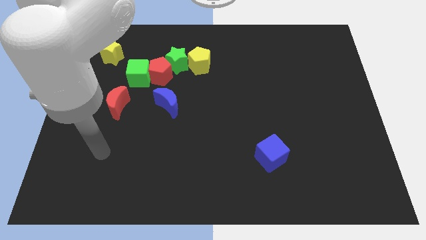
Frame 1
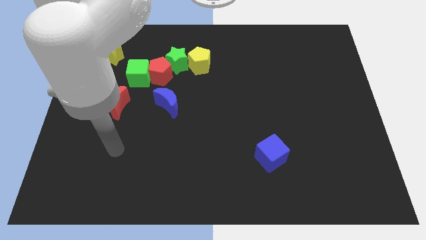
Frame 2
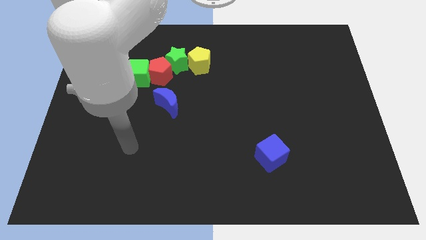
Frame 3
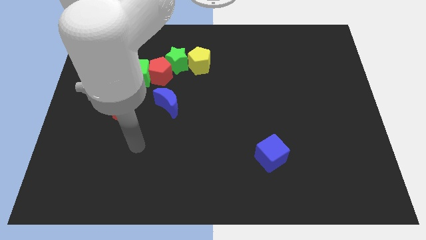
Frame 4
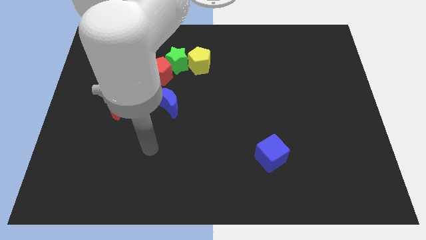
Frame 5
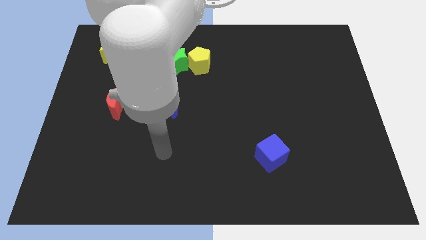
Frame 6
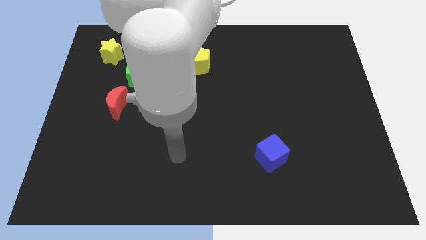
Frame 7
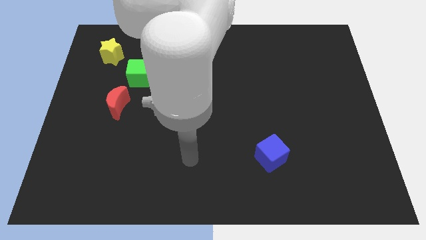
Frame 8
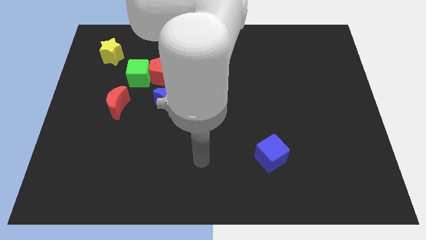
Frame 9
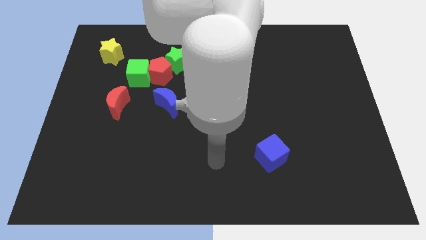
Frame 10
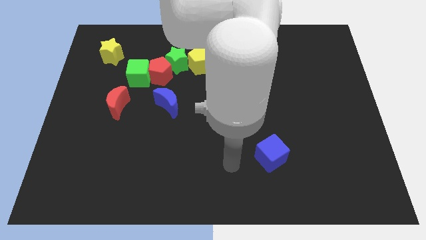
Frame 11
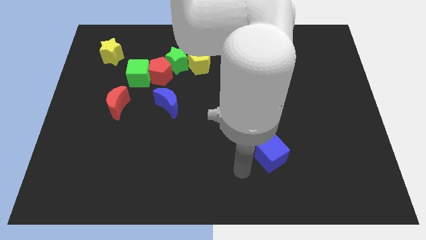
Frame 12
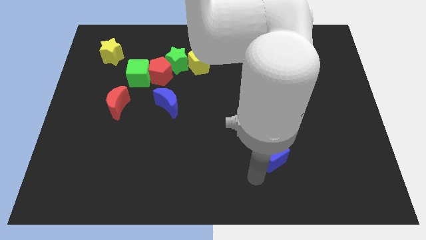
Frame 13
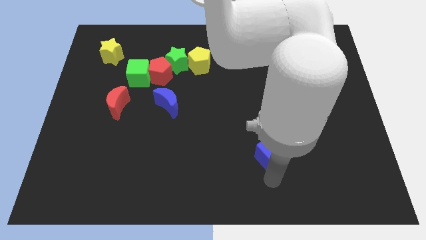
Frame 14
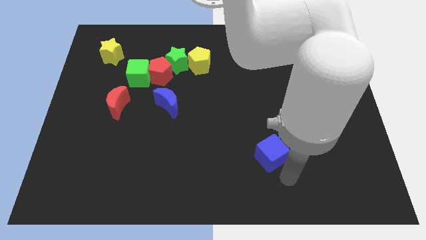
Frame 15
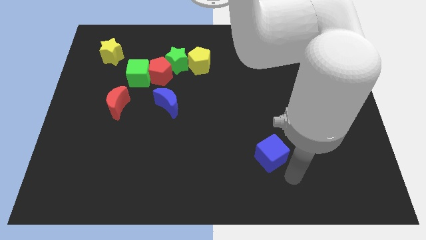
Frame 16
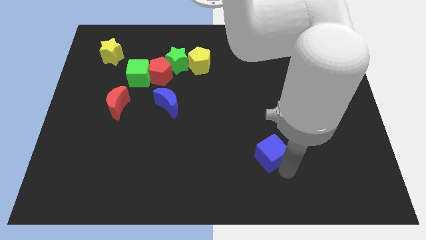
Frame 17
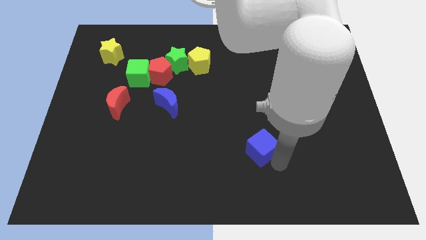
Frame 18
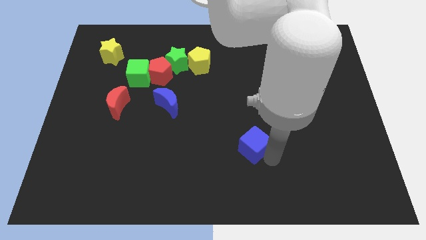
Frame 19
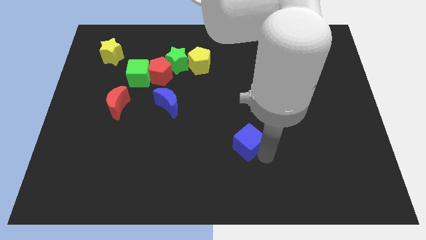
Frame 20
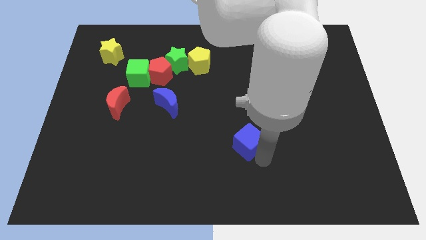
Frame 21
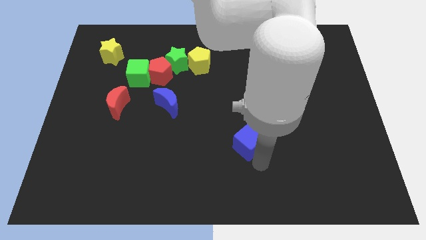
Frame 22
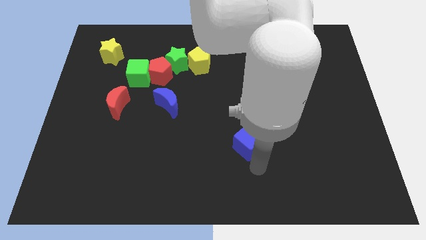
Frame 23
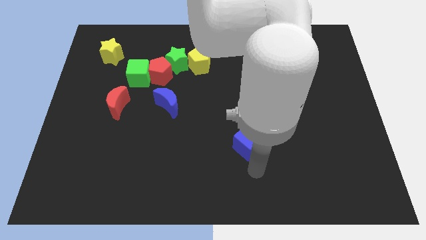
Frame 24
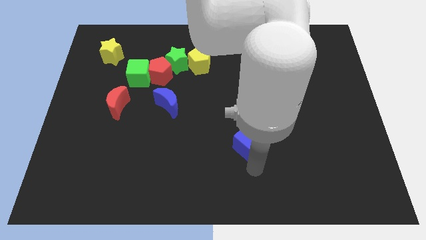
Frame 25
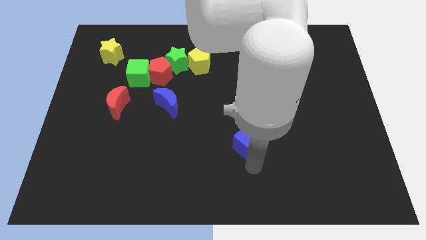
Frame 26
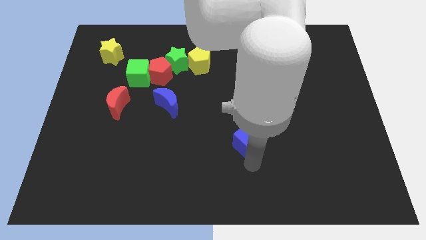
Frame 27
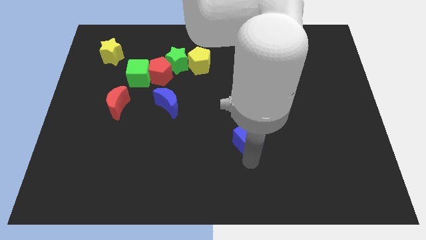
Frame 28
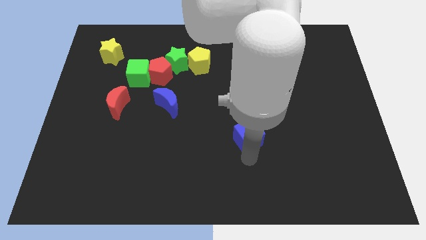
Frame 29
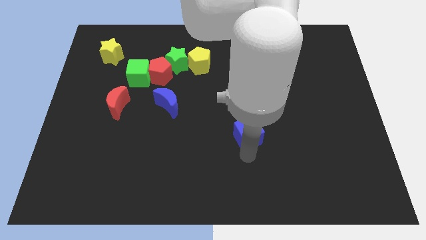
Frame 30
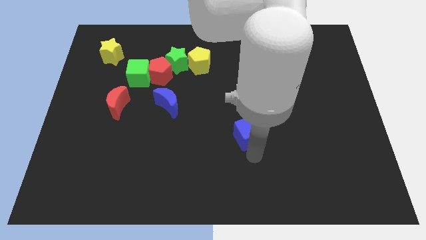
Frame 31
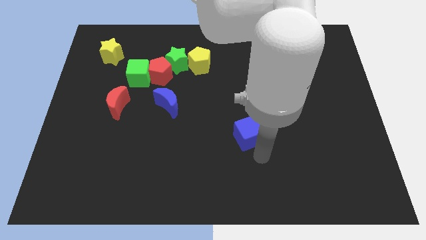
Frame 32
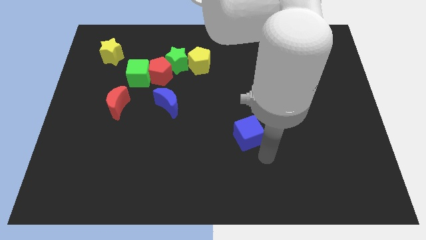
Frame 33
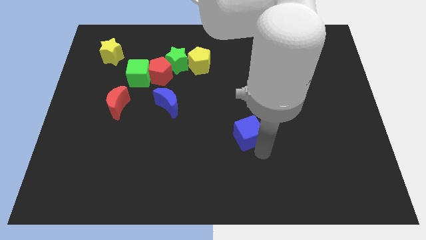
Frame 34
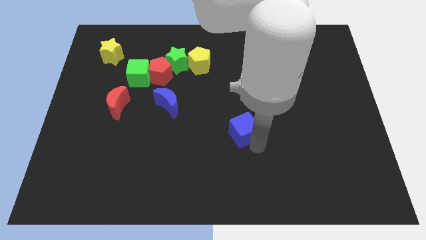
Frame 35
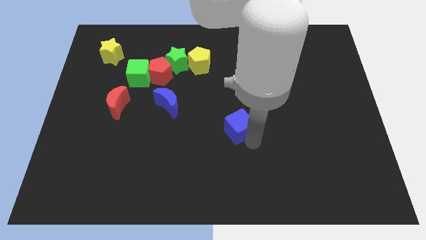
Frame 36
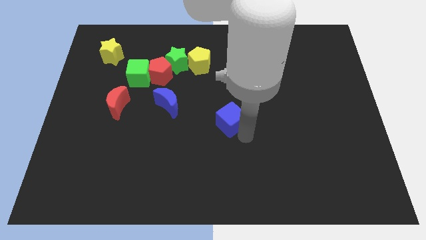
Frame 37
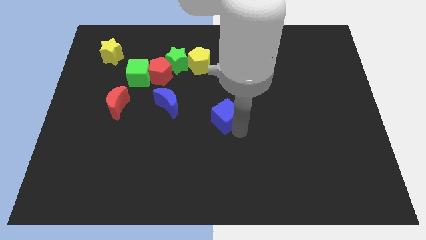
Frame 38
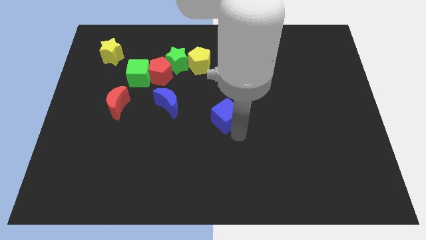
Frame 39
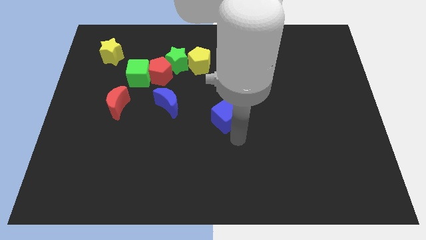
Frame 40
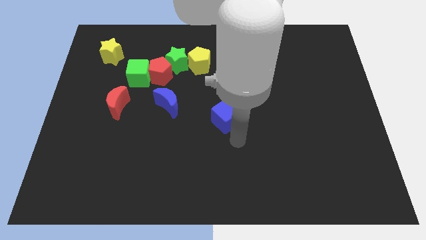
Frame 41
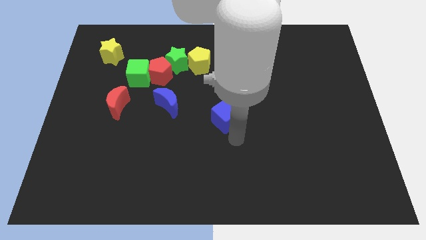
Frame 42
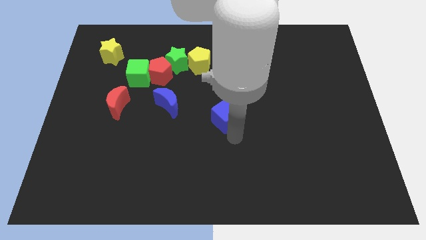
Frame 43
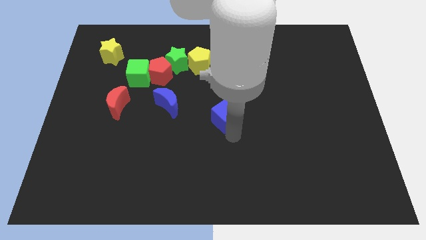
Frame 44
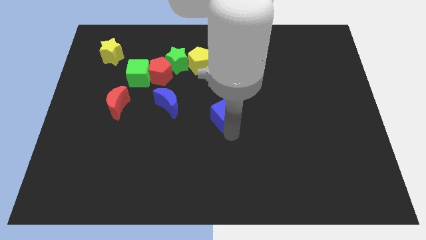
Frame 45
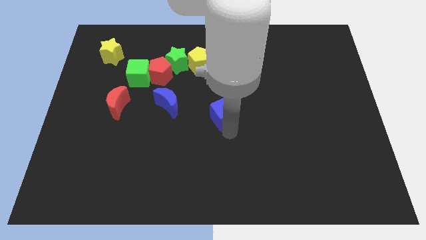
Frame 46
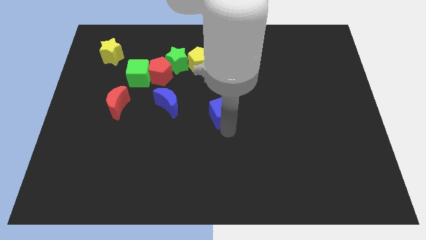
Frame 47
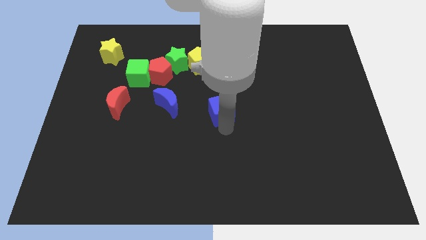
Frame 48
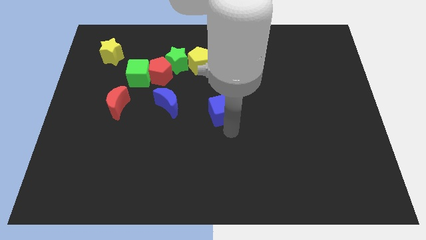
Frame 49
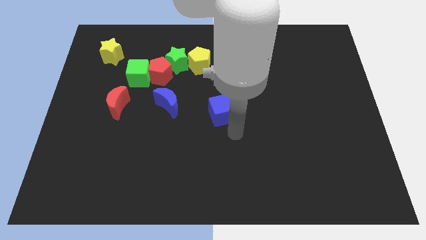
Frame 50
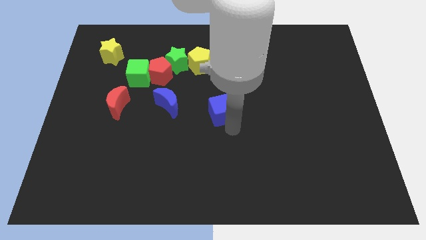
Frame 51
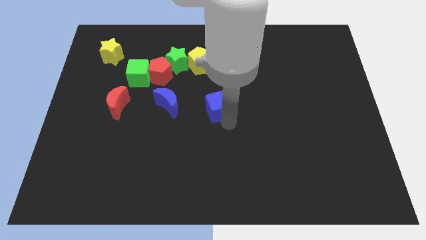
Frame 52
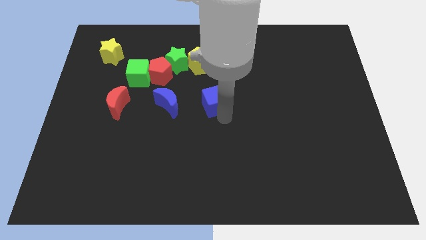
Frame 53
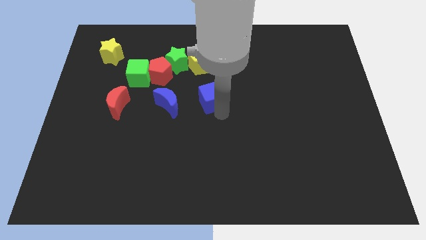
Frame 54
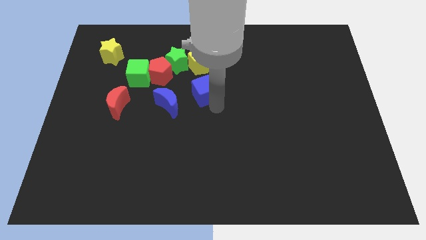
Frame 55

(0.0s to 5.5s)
slide the blue cube to the bottom right side of the green star

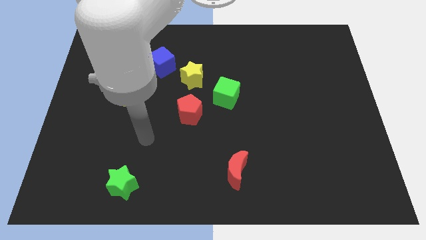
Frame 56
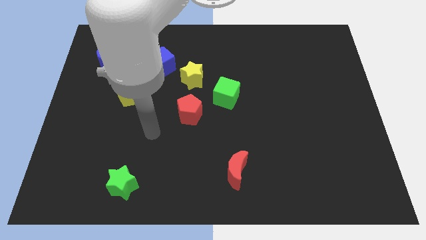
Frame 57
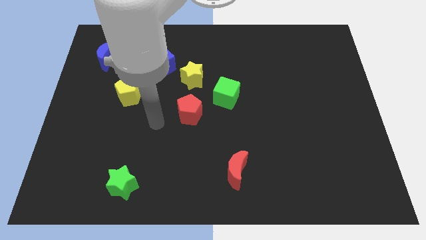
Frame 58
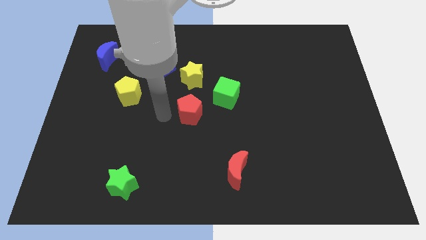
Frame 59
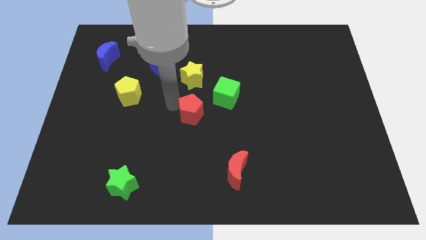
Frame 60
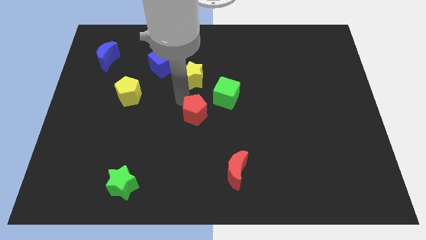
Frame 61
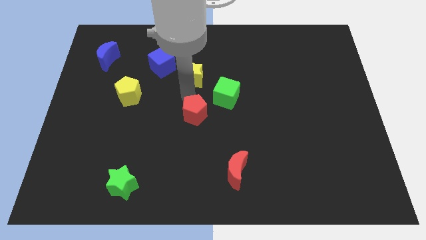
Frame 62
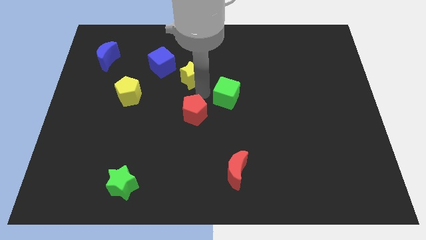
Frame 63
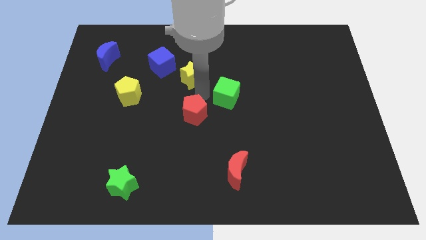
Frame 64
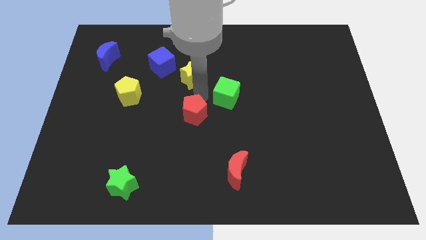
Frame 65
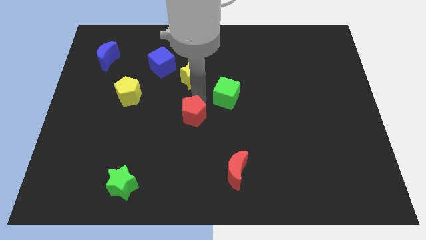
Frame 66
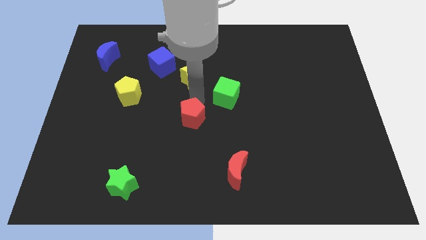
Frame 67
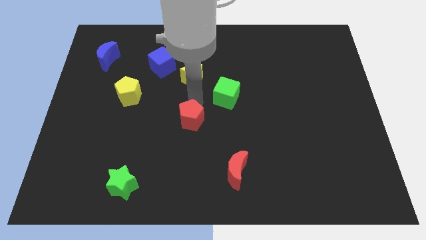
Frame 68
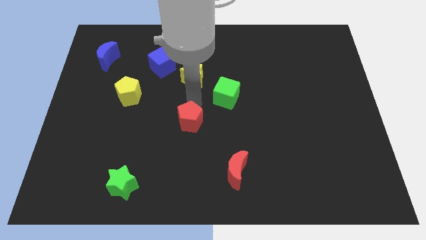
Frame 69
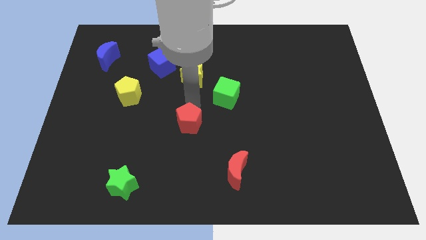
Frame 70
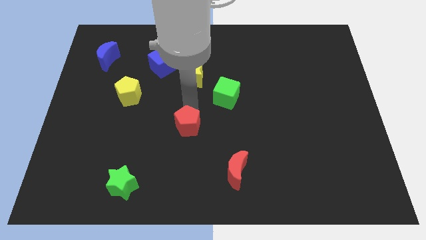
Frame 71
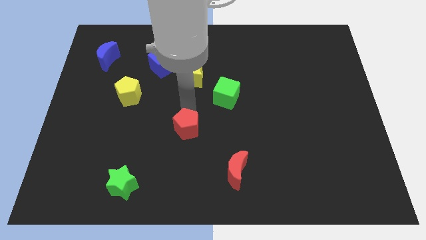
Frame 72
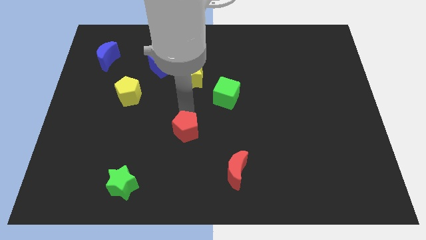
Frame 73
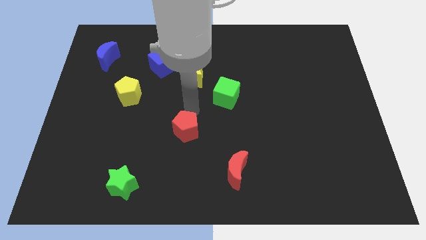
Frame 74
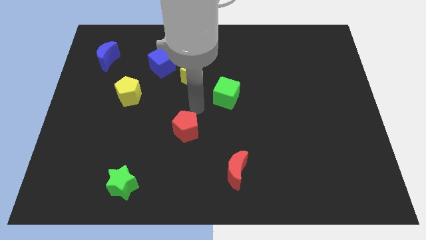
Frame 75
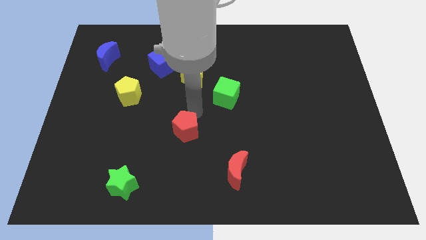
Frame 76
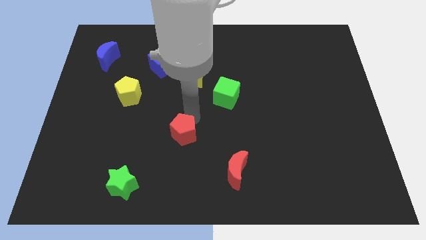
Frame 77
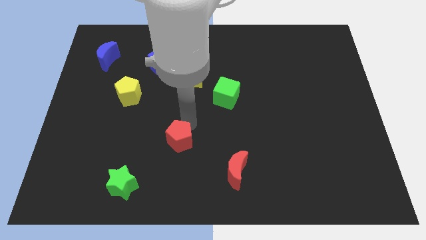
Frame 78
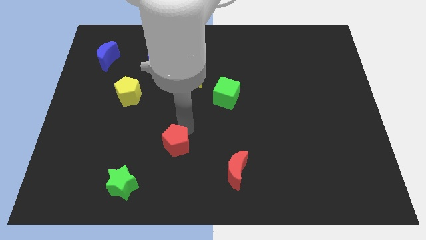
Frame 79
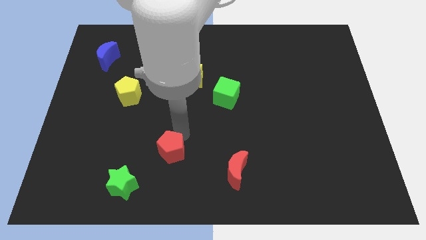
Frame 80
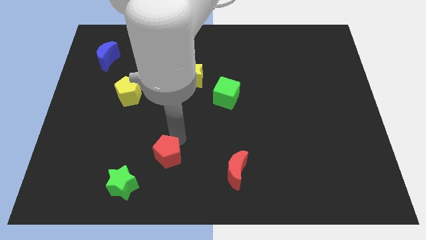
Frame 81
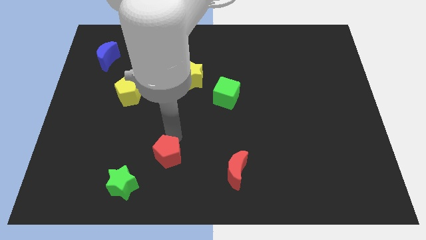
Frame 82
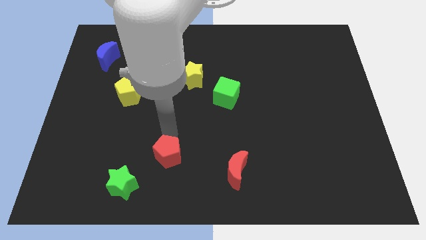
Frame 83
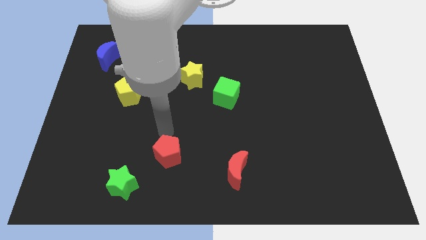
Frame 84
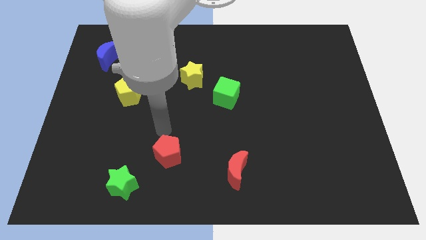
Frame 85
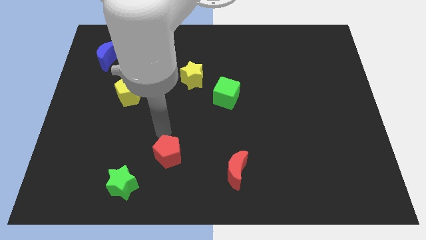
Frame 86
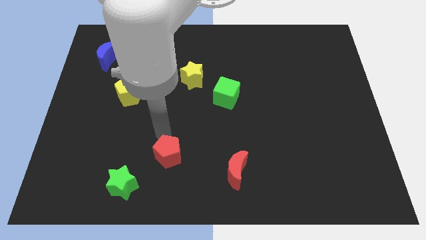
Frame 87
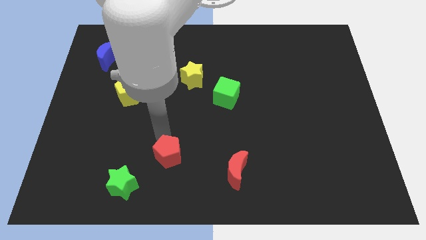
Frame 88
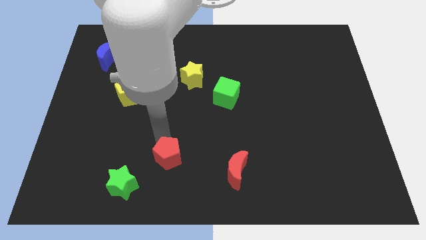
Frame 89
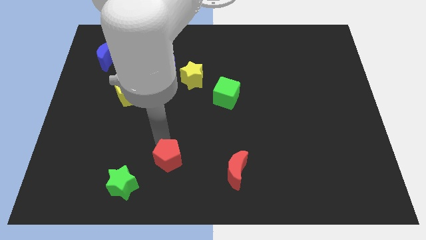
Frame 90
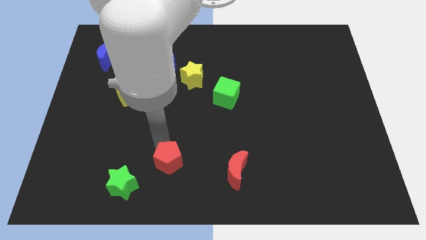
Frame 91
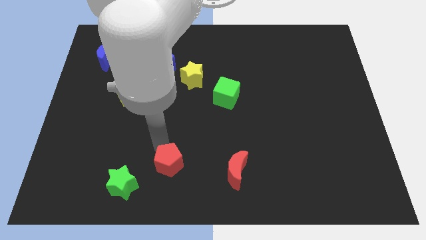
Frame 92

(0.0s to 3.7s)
slide the red pentagon to the right of the green star
